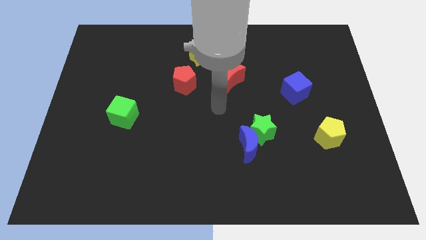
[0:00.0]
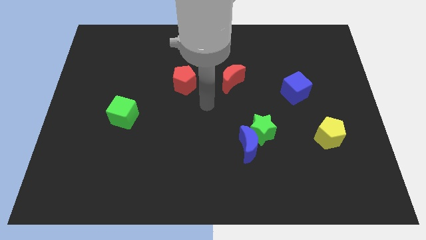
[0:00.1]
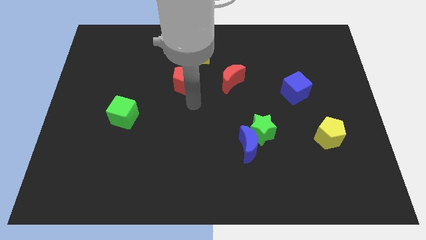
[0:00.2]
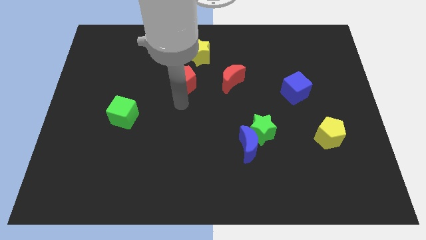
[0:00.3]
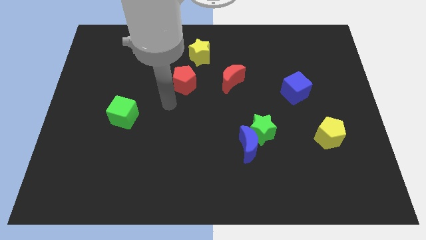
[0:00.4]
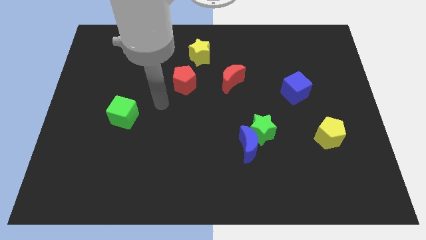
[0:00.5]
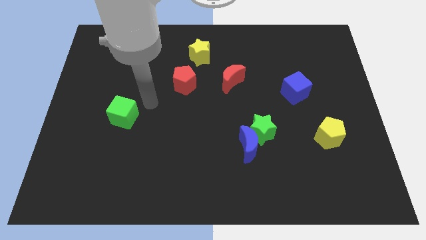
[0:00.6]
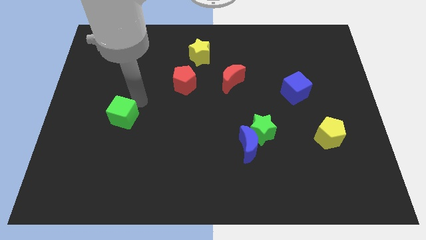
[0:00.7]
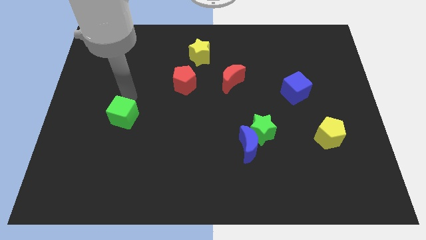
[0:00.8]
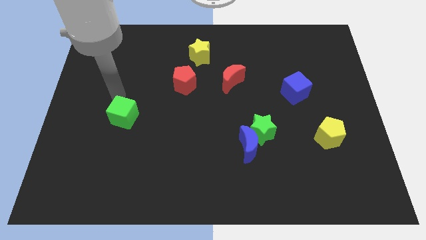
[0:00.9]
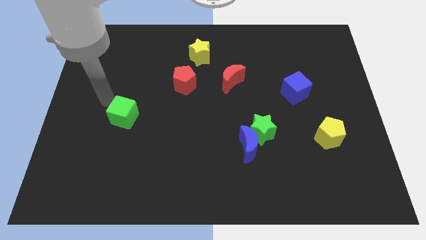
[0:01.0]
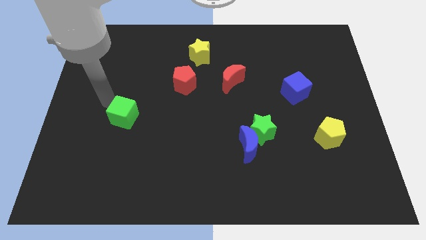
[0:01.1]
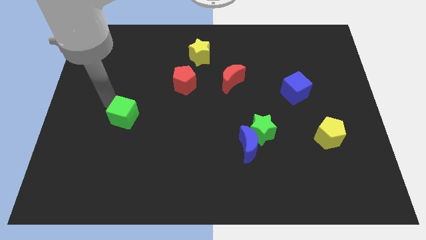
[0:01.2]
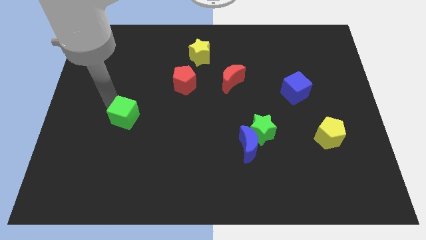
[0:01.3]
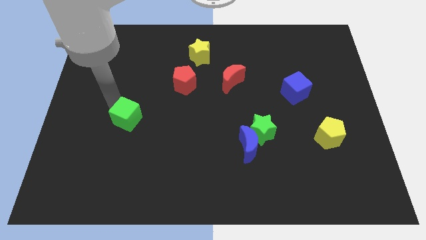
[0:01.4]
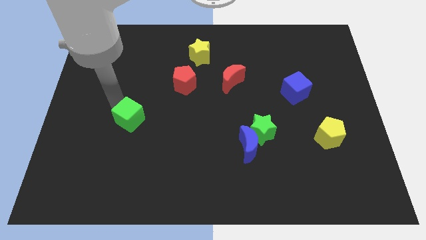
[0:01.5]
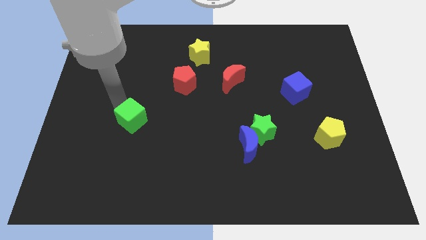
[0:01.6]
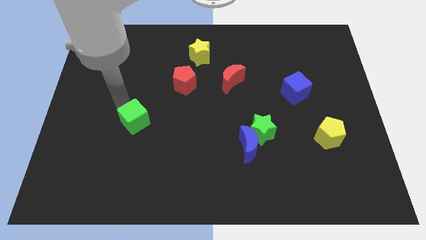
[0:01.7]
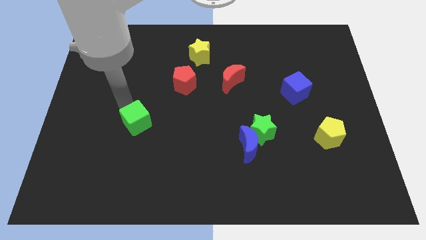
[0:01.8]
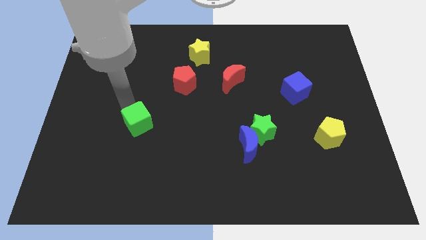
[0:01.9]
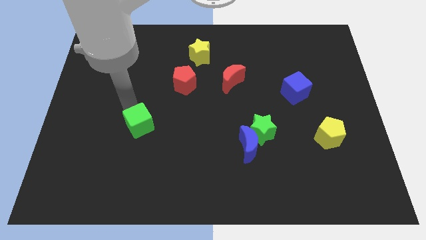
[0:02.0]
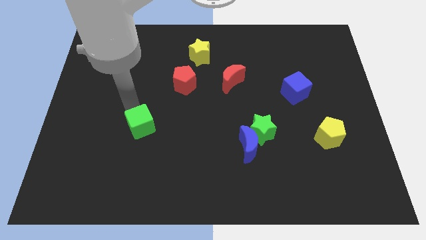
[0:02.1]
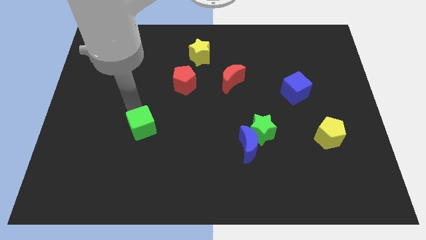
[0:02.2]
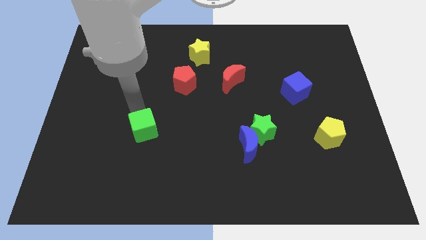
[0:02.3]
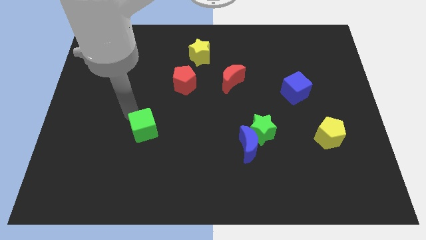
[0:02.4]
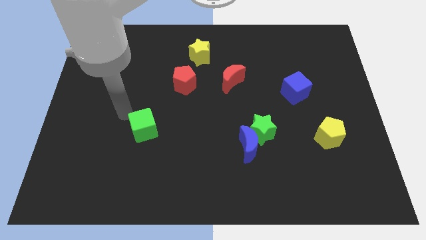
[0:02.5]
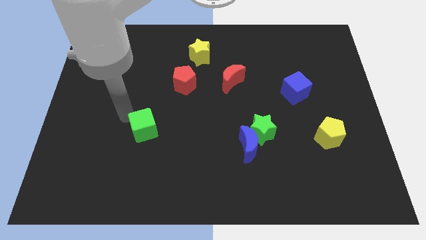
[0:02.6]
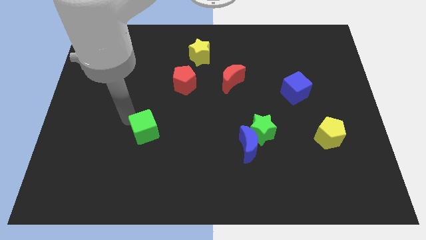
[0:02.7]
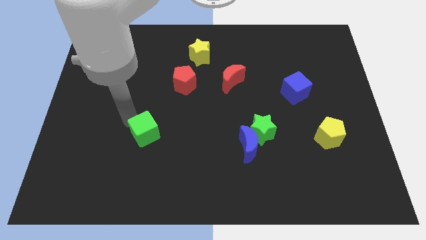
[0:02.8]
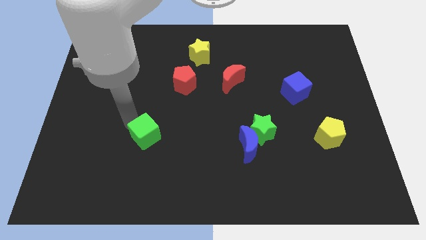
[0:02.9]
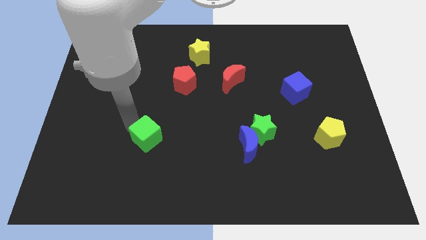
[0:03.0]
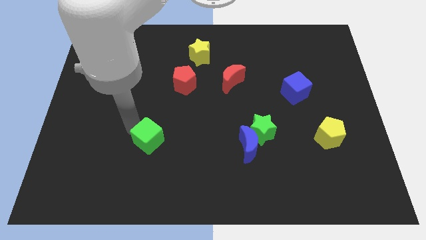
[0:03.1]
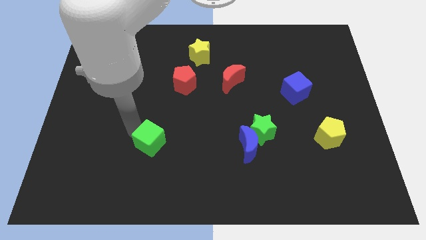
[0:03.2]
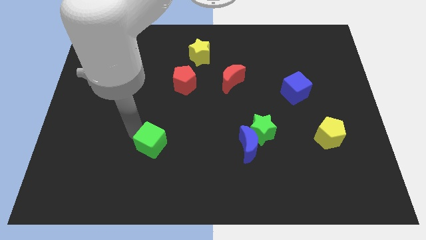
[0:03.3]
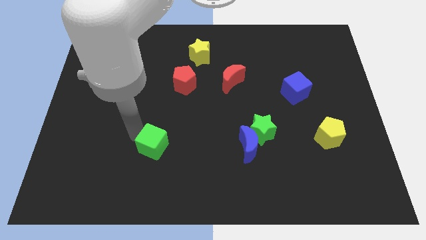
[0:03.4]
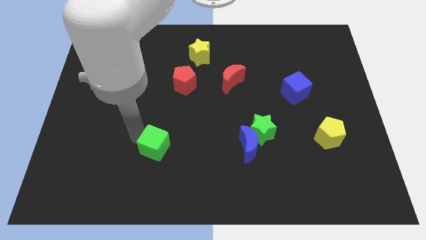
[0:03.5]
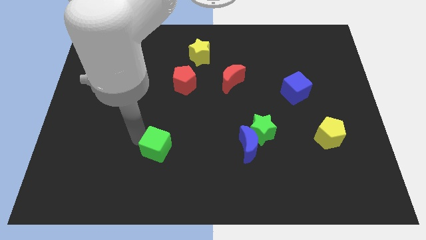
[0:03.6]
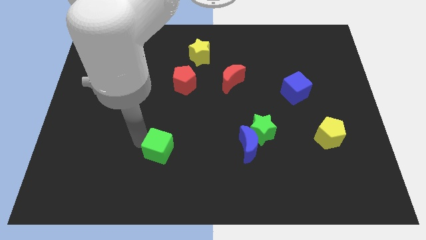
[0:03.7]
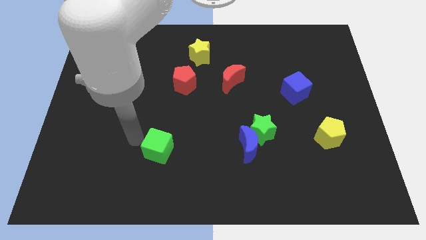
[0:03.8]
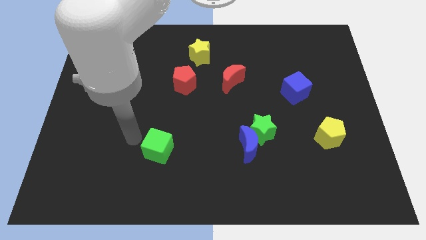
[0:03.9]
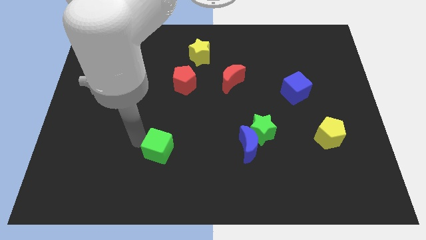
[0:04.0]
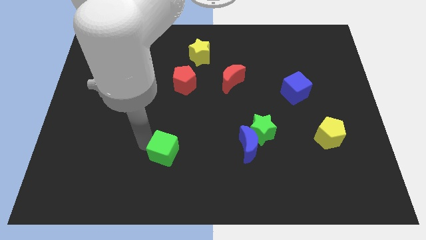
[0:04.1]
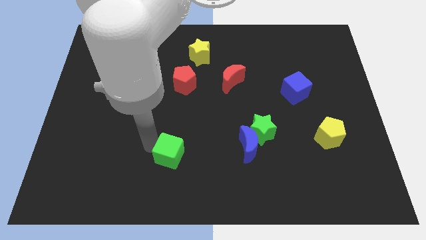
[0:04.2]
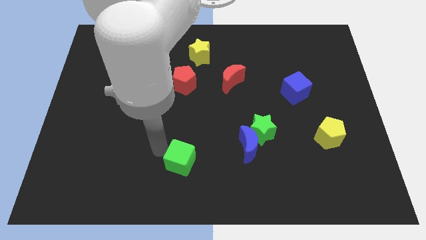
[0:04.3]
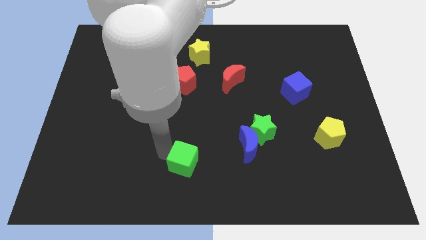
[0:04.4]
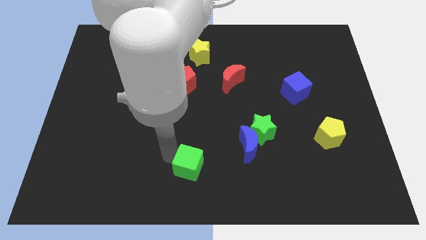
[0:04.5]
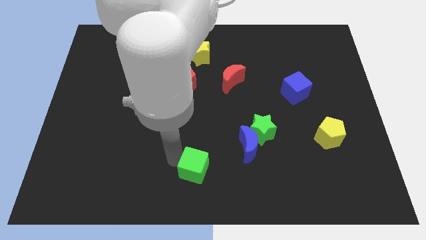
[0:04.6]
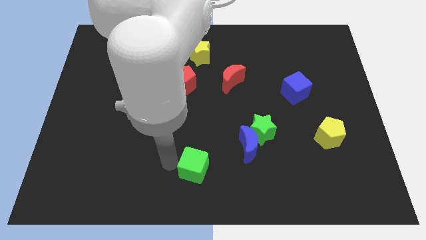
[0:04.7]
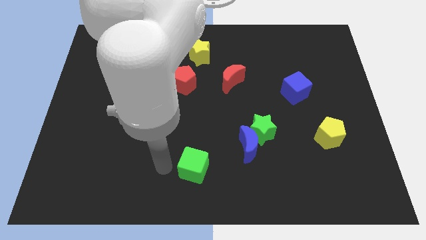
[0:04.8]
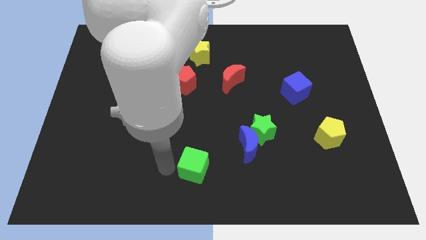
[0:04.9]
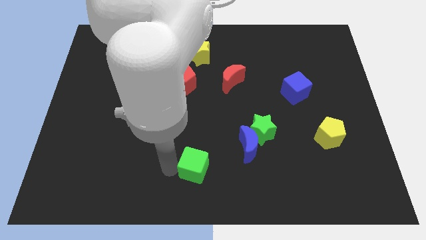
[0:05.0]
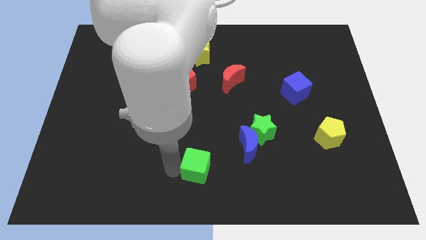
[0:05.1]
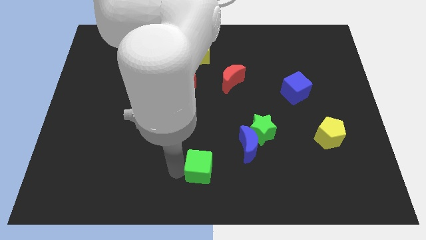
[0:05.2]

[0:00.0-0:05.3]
slide the green cube to the bottom left side of the blue moon

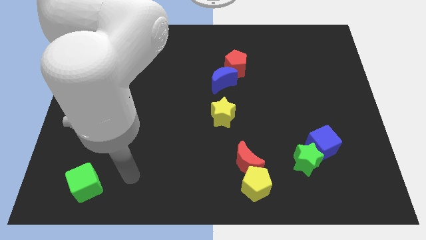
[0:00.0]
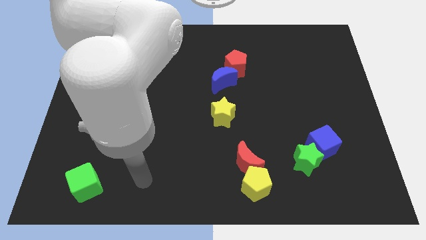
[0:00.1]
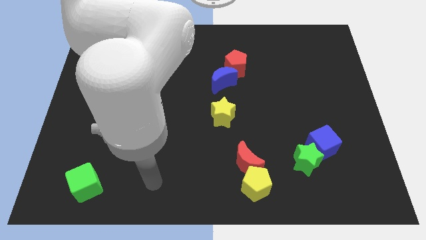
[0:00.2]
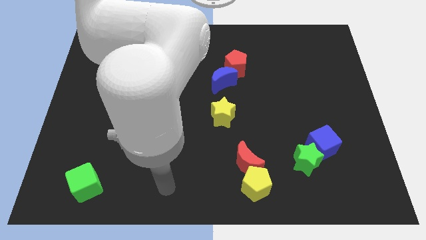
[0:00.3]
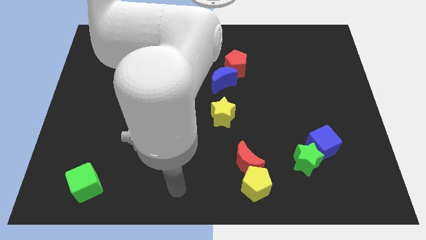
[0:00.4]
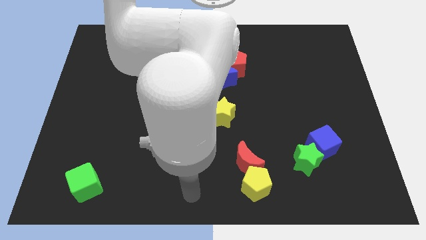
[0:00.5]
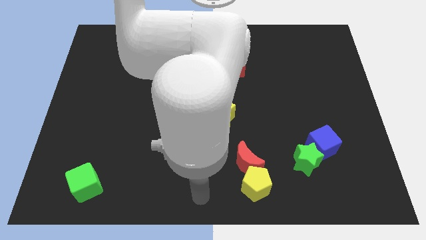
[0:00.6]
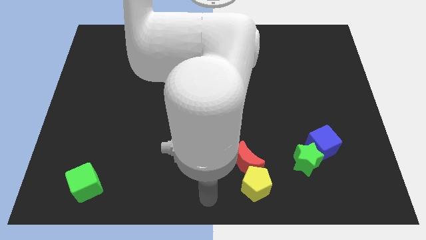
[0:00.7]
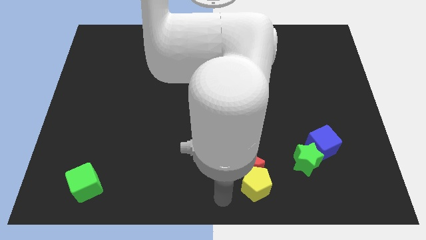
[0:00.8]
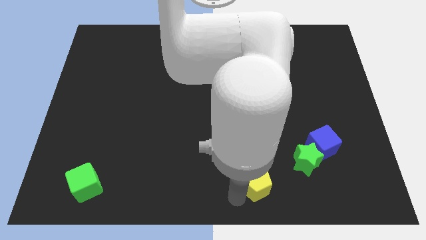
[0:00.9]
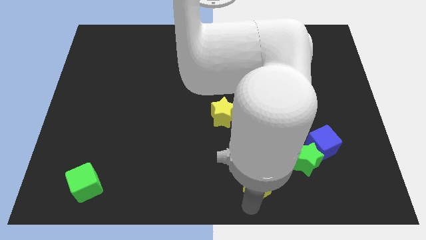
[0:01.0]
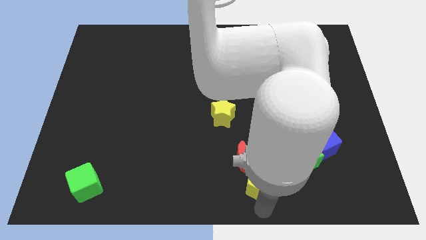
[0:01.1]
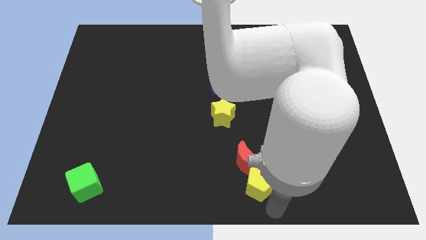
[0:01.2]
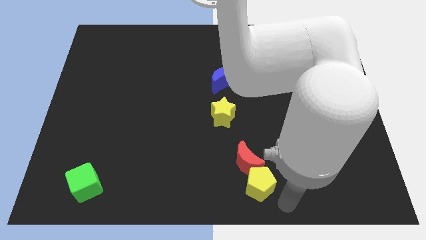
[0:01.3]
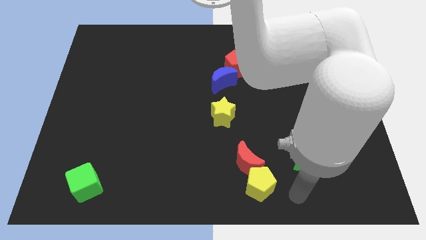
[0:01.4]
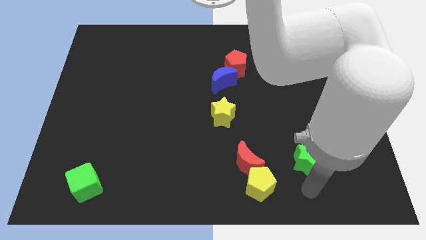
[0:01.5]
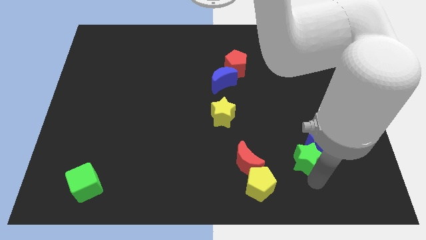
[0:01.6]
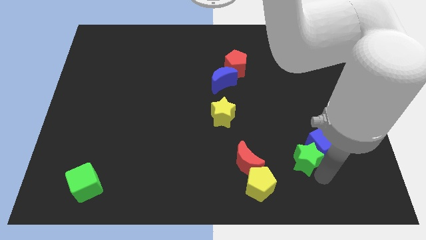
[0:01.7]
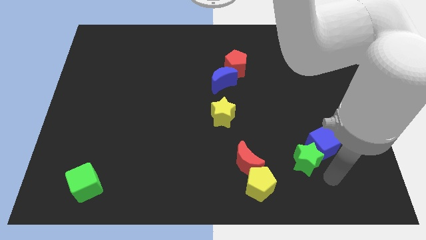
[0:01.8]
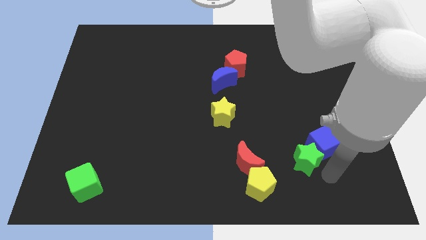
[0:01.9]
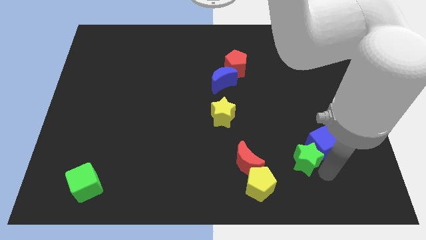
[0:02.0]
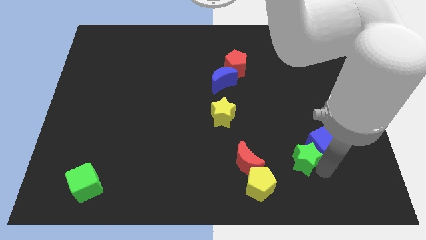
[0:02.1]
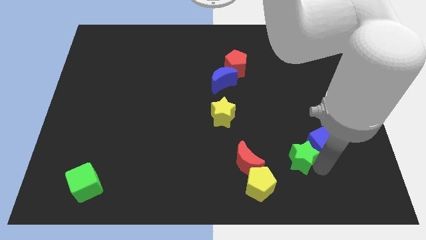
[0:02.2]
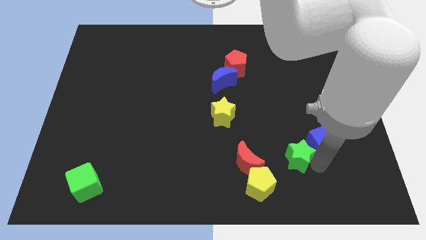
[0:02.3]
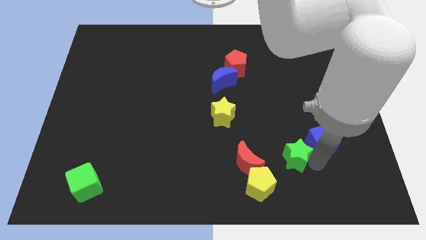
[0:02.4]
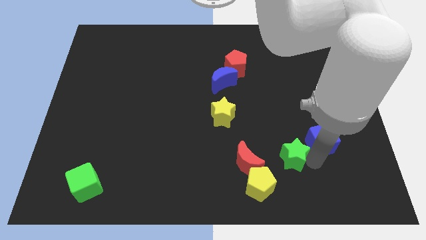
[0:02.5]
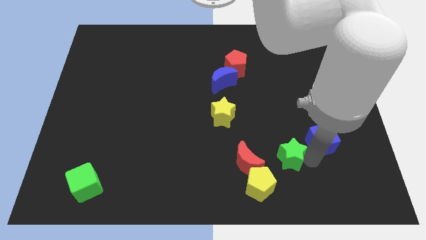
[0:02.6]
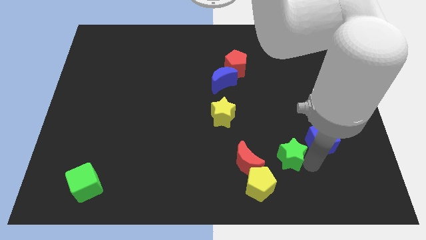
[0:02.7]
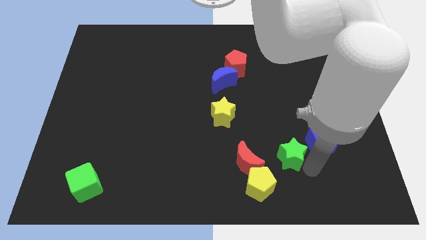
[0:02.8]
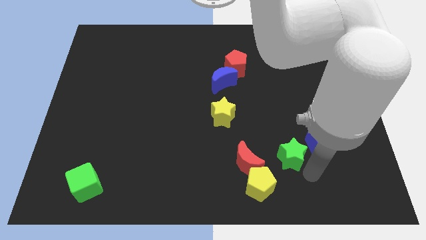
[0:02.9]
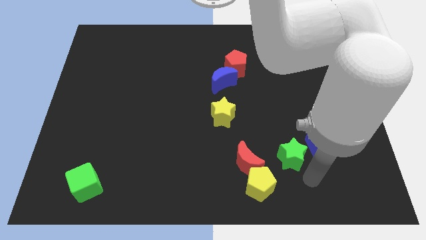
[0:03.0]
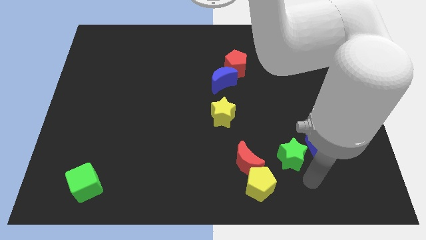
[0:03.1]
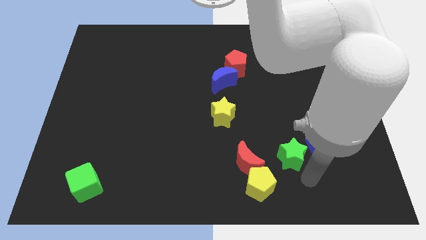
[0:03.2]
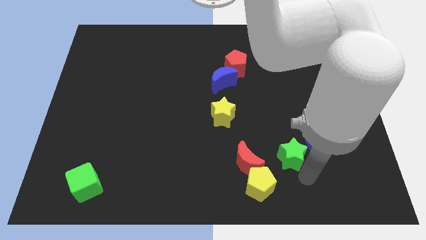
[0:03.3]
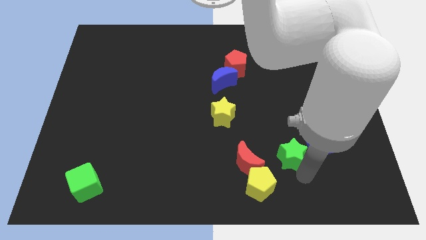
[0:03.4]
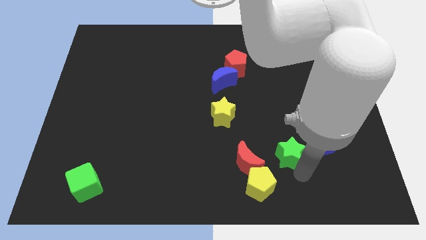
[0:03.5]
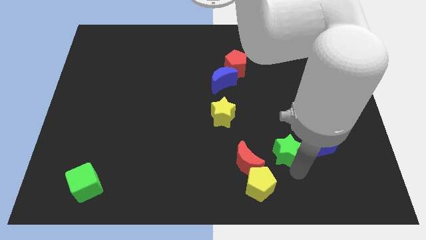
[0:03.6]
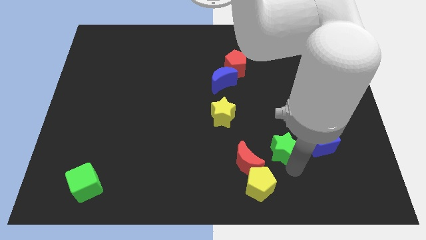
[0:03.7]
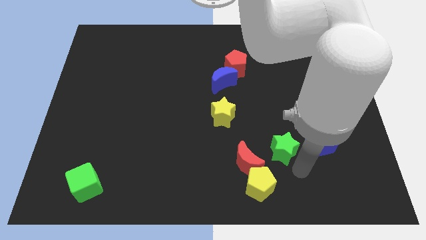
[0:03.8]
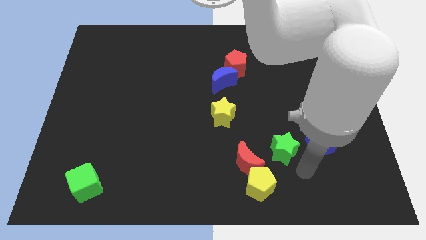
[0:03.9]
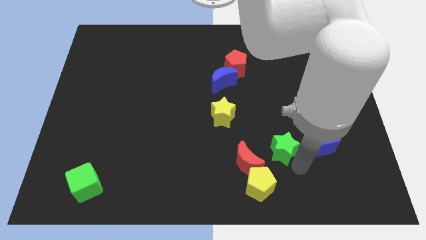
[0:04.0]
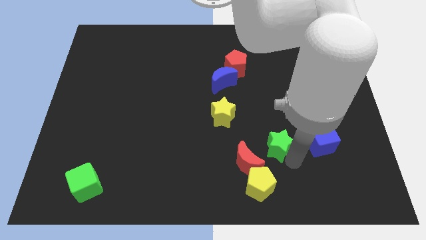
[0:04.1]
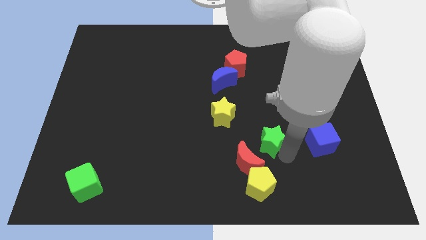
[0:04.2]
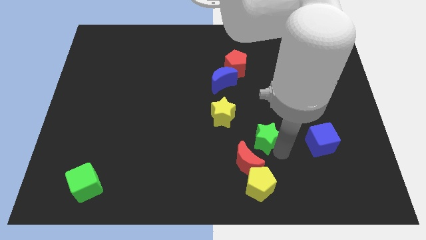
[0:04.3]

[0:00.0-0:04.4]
slide the green star to the top side of the red moon
